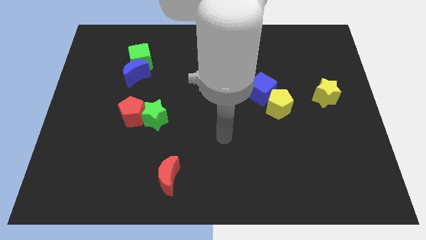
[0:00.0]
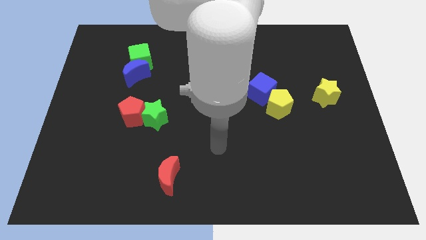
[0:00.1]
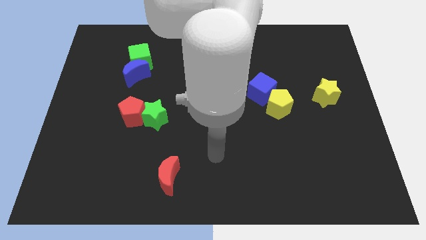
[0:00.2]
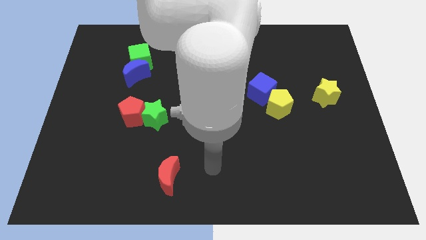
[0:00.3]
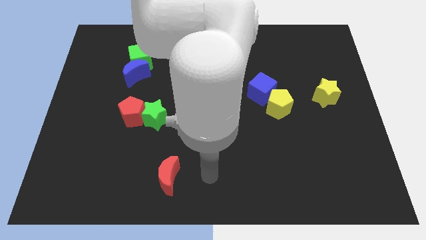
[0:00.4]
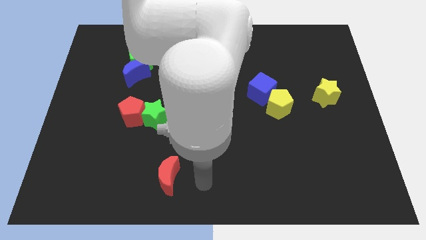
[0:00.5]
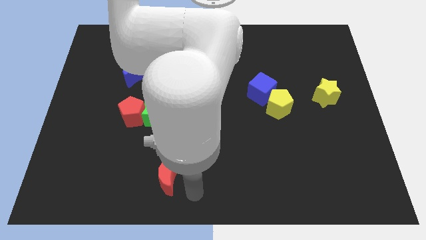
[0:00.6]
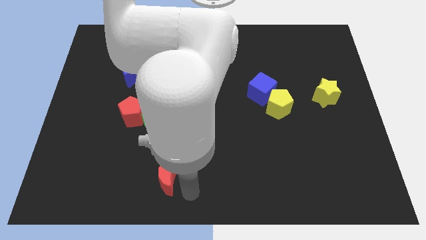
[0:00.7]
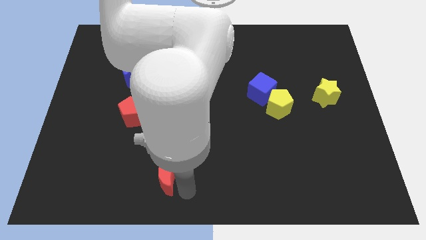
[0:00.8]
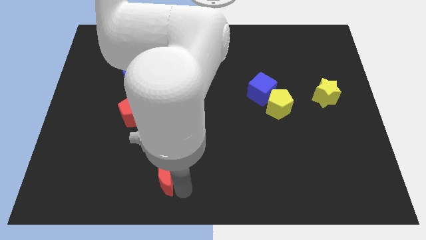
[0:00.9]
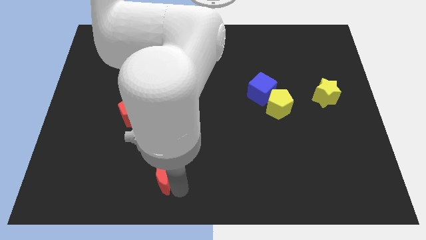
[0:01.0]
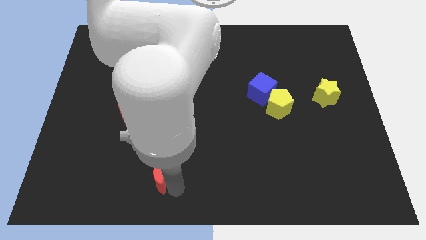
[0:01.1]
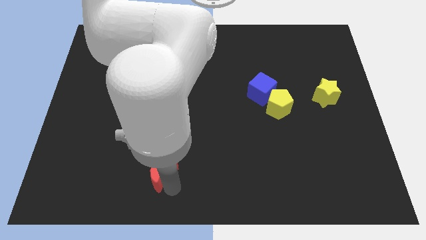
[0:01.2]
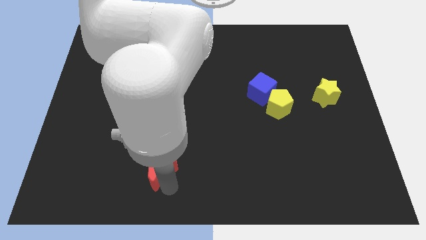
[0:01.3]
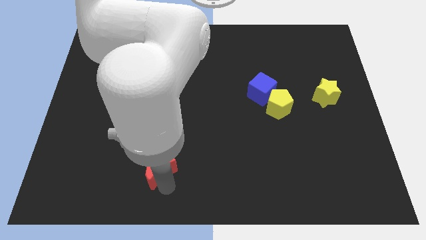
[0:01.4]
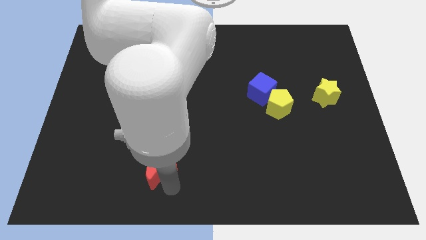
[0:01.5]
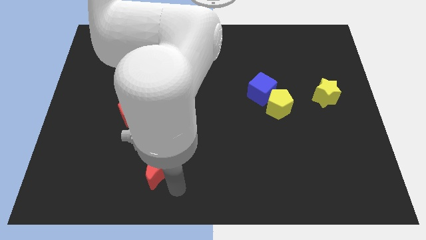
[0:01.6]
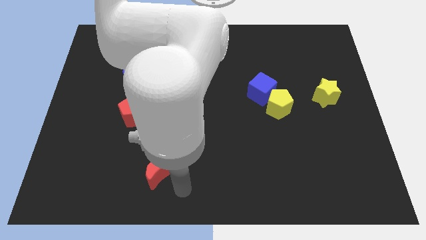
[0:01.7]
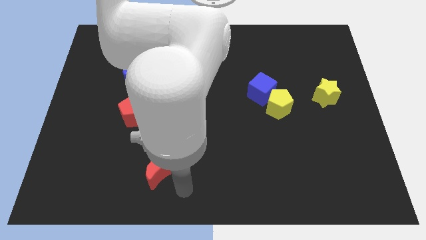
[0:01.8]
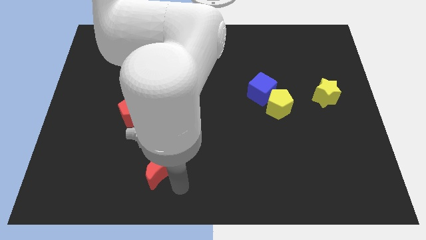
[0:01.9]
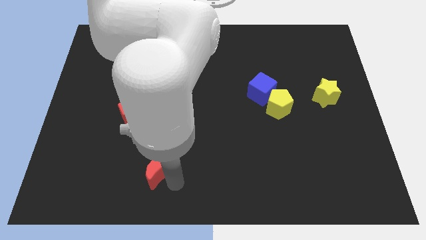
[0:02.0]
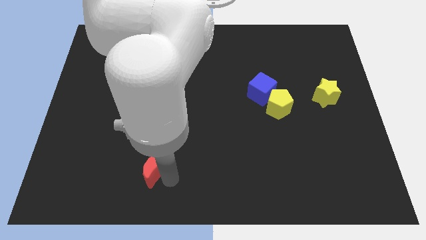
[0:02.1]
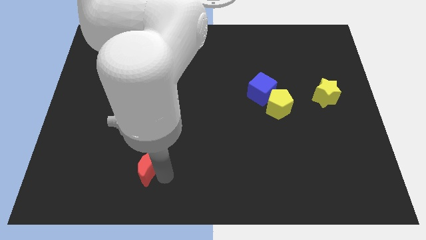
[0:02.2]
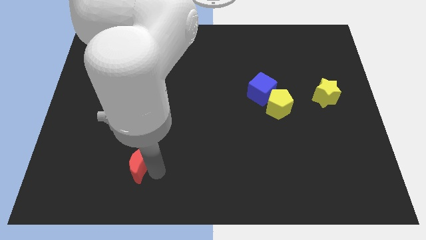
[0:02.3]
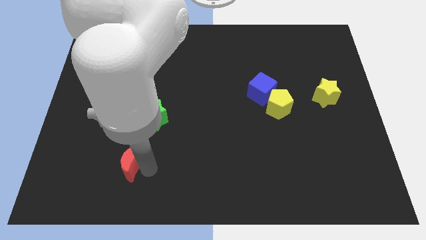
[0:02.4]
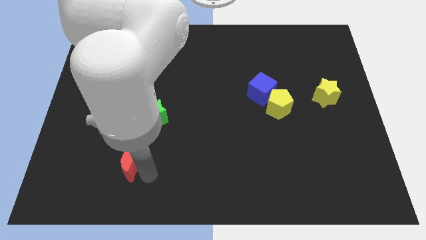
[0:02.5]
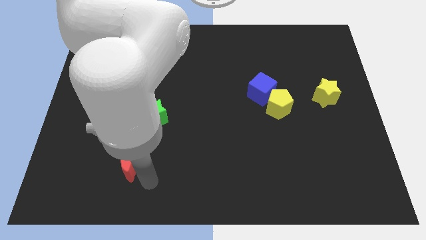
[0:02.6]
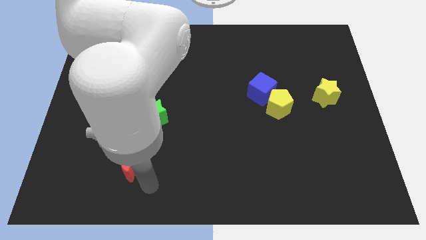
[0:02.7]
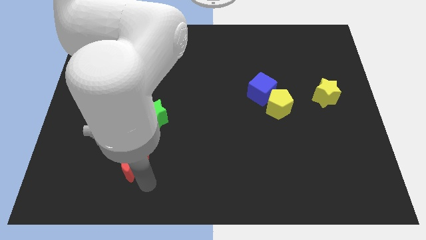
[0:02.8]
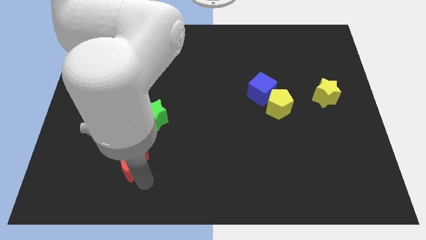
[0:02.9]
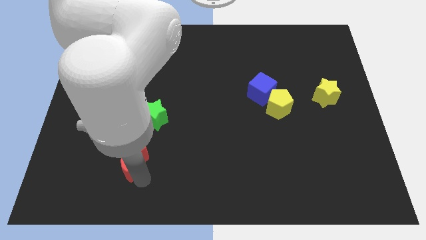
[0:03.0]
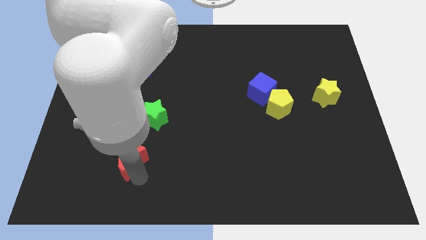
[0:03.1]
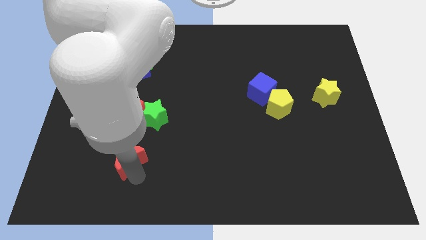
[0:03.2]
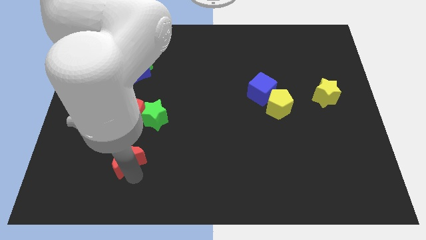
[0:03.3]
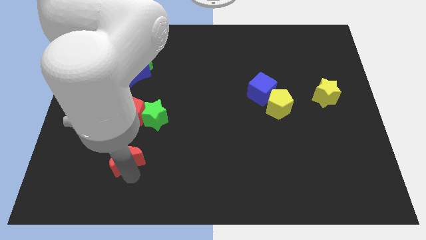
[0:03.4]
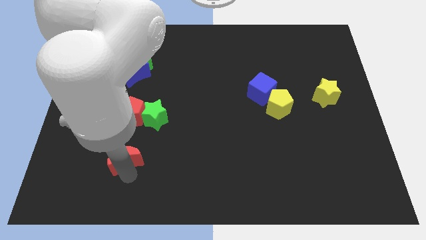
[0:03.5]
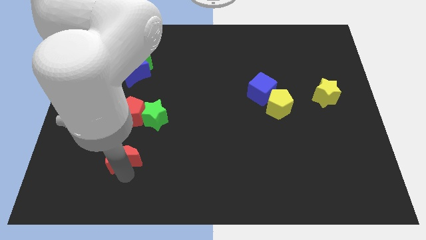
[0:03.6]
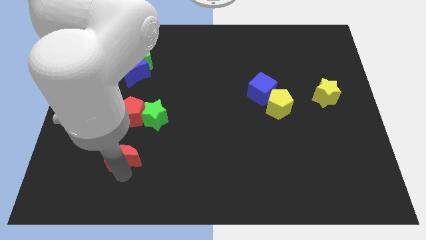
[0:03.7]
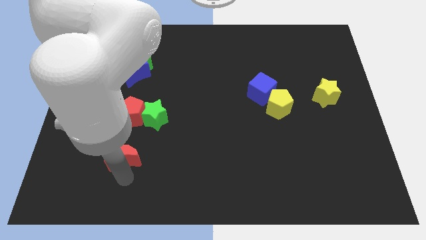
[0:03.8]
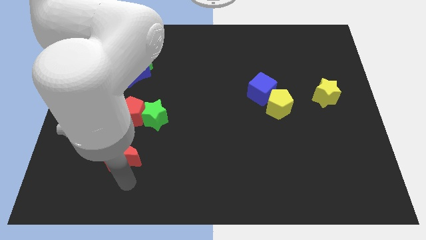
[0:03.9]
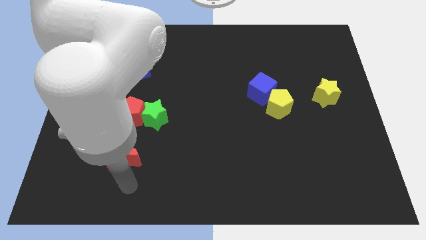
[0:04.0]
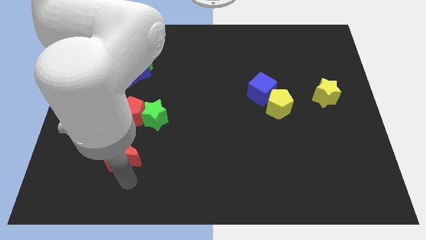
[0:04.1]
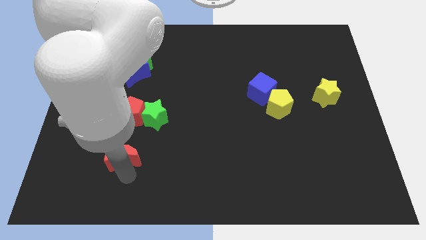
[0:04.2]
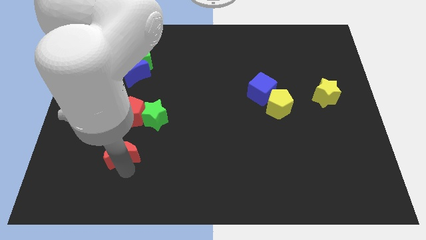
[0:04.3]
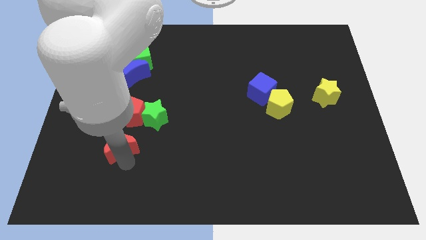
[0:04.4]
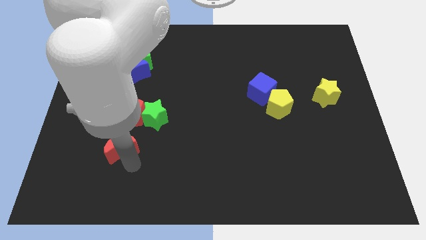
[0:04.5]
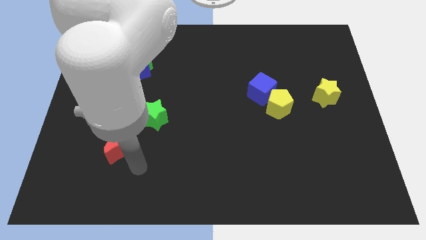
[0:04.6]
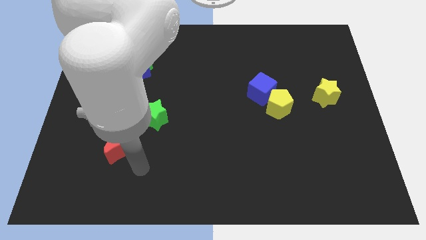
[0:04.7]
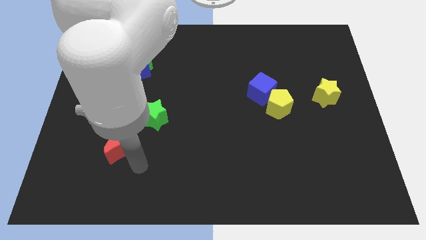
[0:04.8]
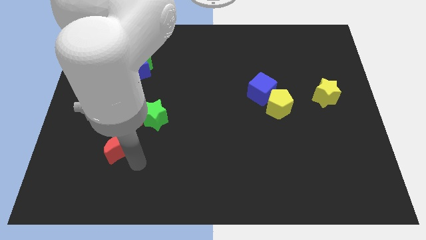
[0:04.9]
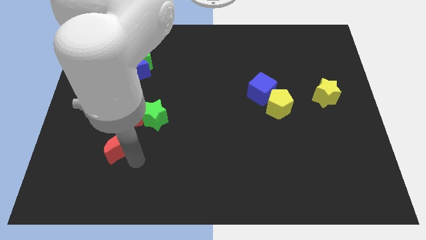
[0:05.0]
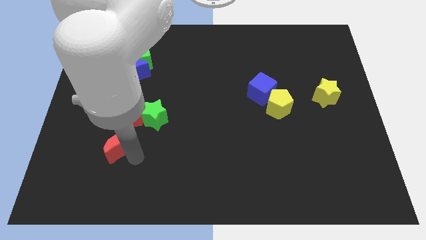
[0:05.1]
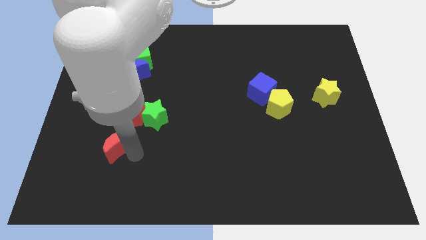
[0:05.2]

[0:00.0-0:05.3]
slide the red moon to the bottom left of the red pentagon

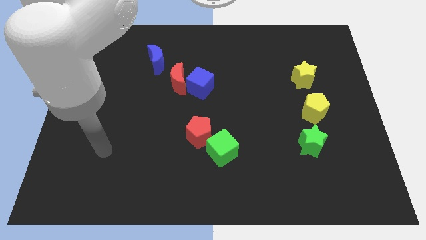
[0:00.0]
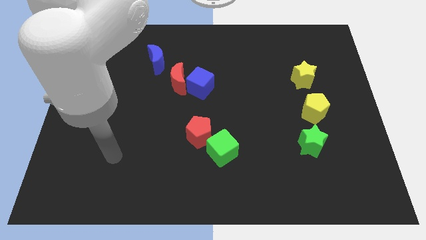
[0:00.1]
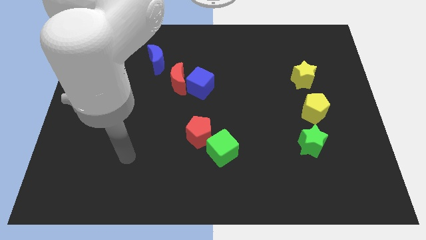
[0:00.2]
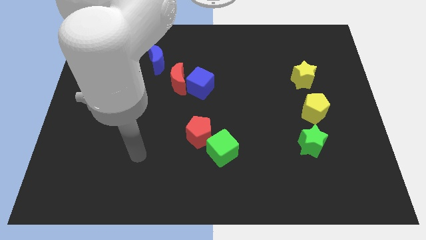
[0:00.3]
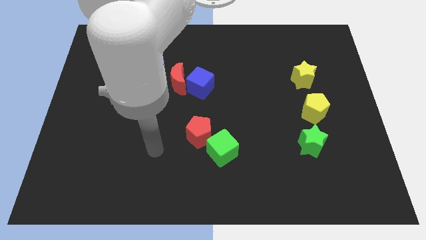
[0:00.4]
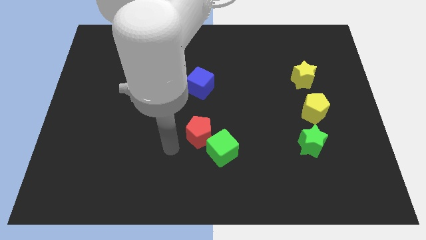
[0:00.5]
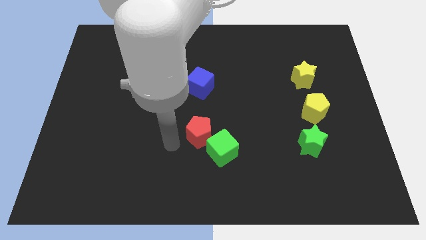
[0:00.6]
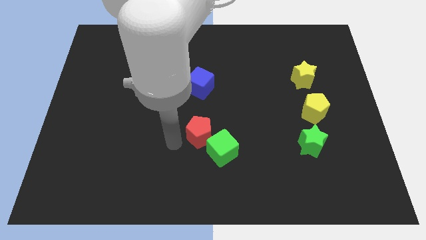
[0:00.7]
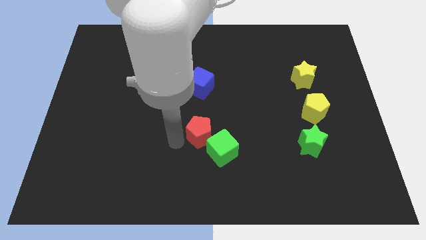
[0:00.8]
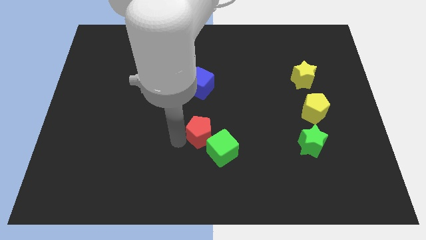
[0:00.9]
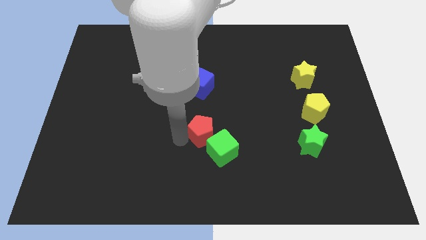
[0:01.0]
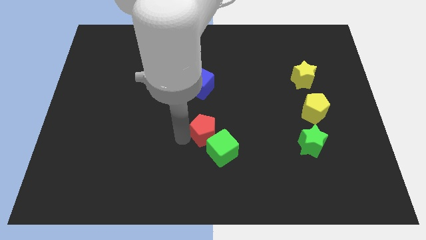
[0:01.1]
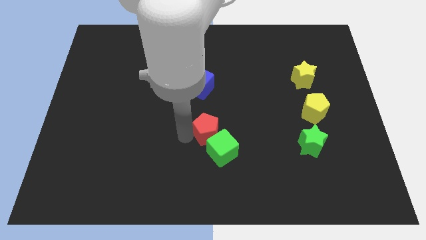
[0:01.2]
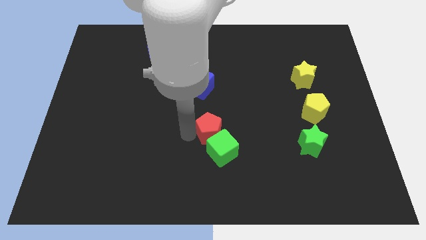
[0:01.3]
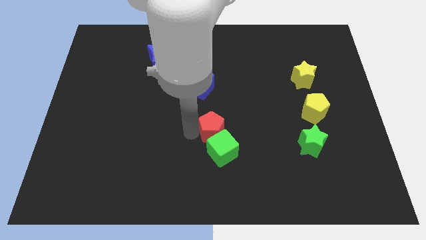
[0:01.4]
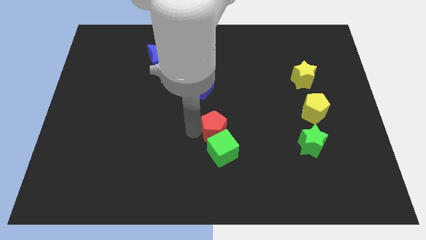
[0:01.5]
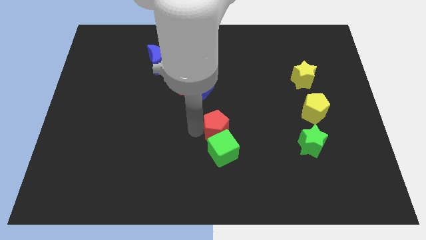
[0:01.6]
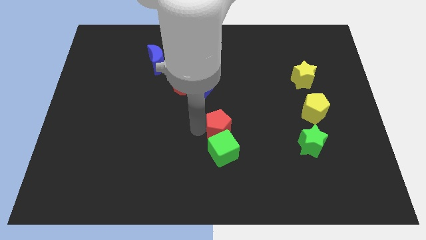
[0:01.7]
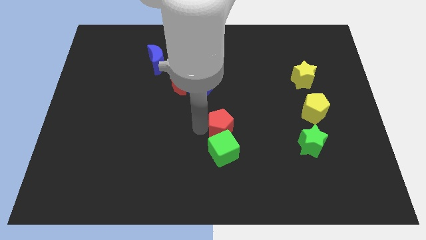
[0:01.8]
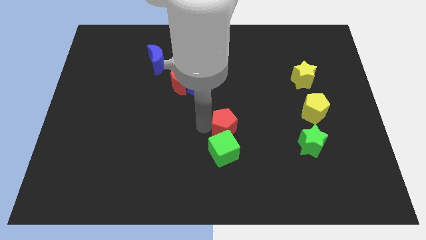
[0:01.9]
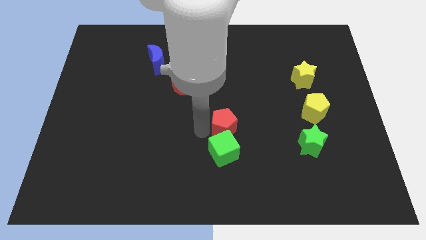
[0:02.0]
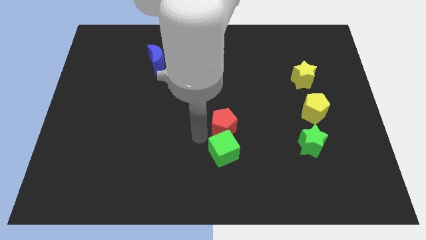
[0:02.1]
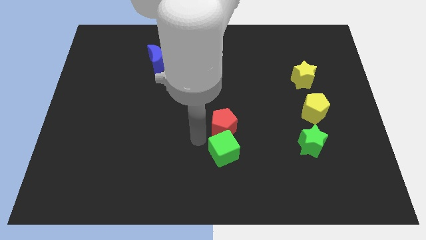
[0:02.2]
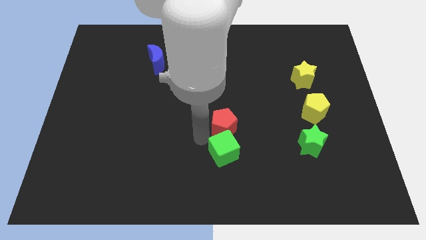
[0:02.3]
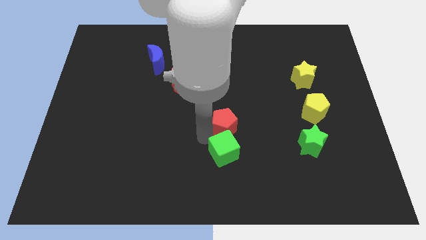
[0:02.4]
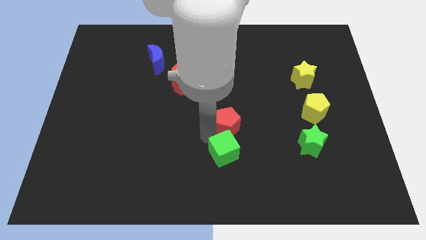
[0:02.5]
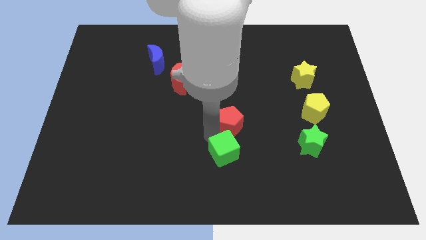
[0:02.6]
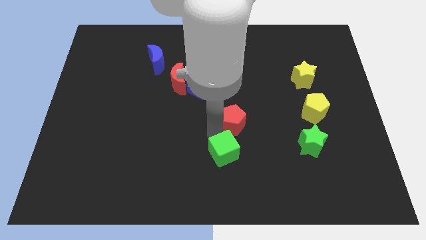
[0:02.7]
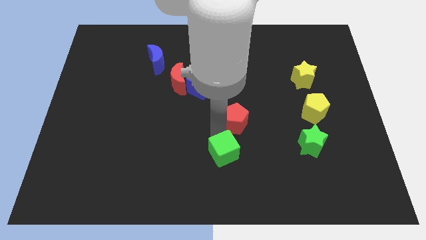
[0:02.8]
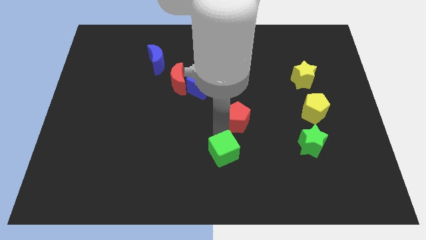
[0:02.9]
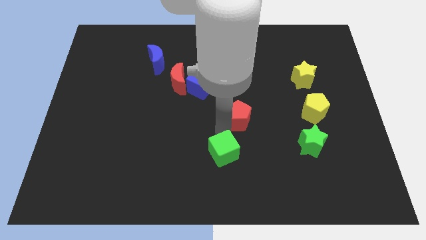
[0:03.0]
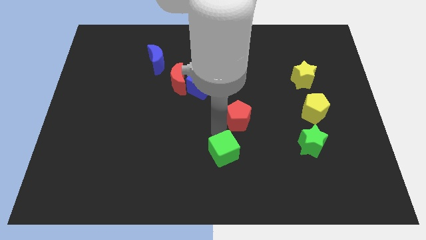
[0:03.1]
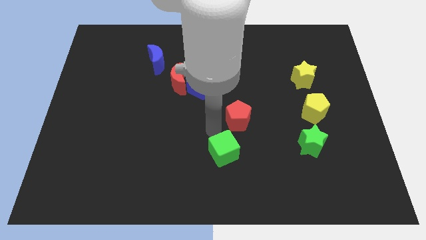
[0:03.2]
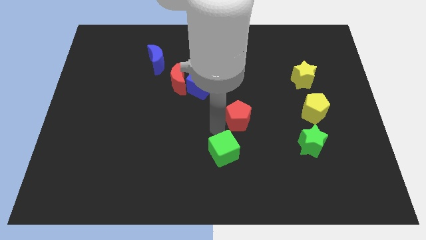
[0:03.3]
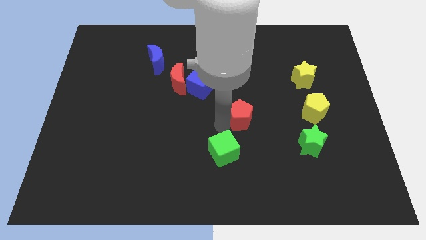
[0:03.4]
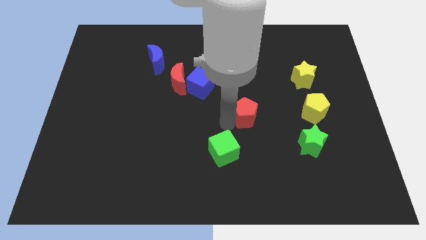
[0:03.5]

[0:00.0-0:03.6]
put the red pentagon left of the yellow pentagon
